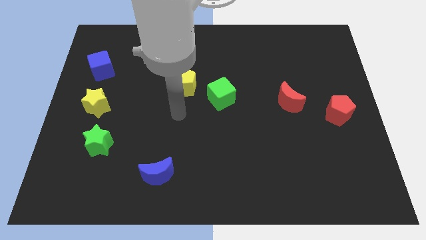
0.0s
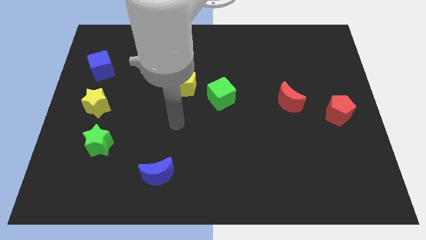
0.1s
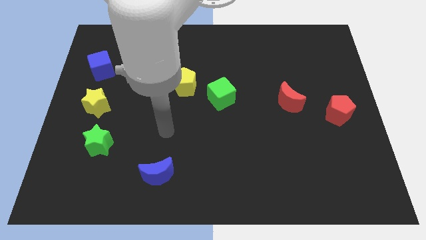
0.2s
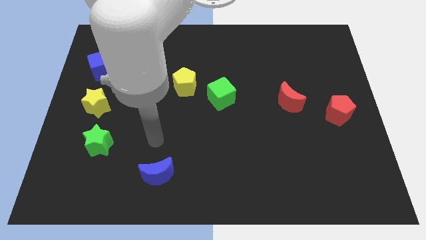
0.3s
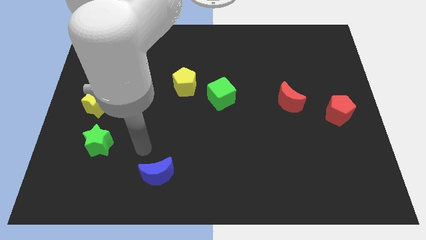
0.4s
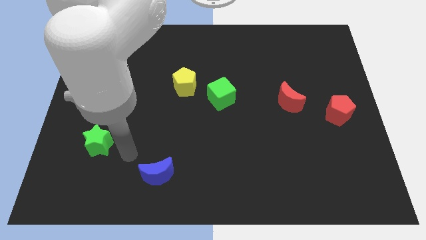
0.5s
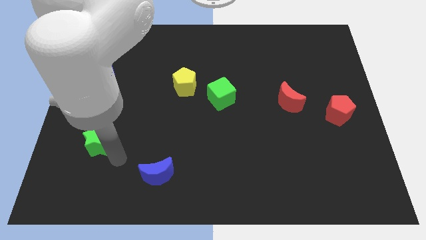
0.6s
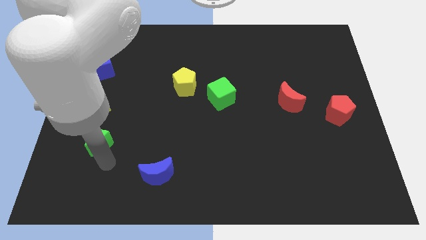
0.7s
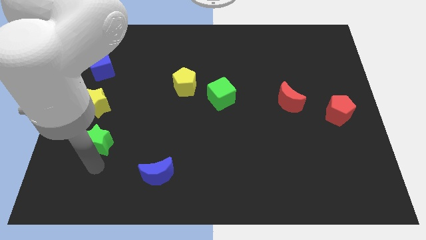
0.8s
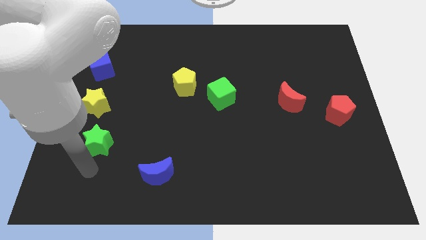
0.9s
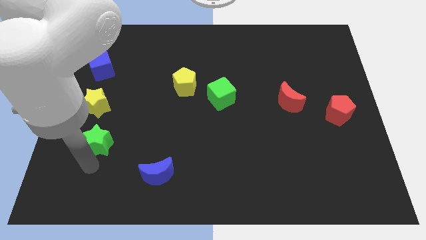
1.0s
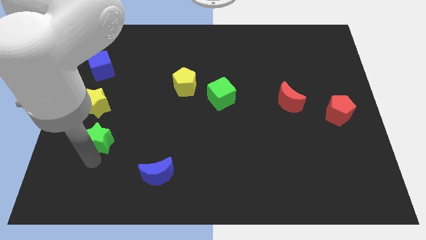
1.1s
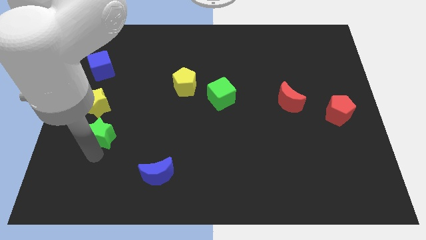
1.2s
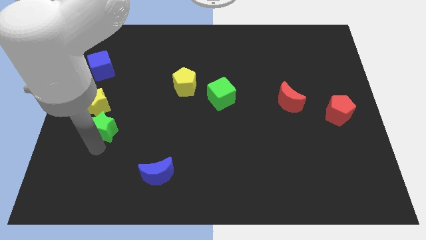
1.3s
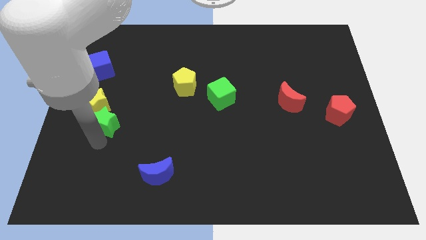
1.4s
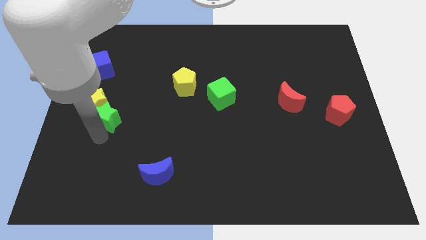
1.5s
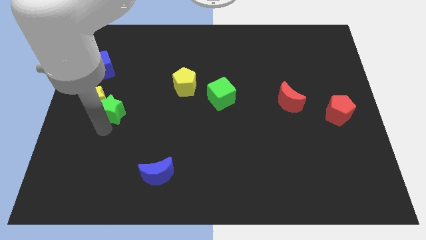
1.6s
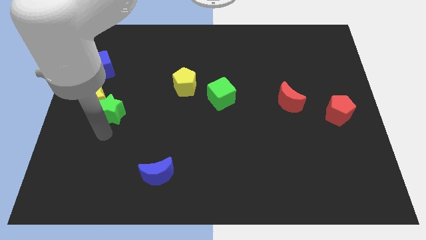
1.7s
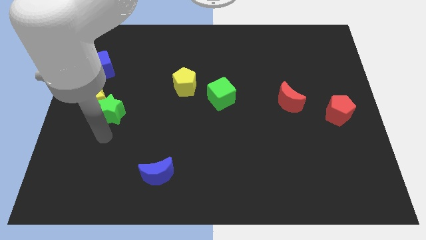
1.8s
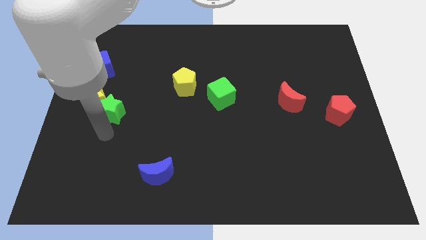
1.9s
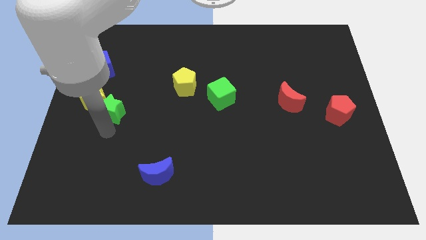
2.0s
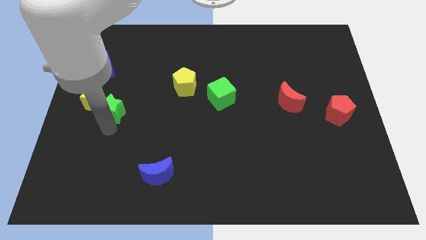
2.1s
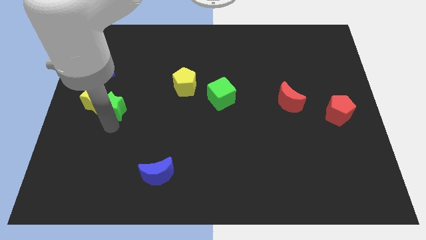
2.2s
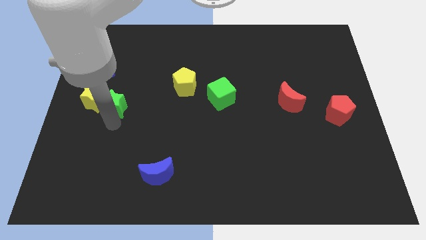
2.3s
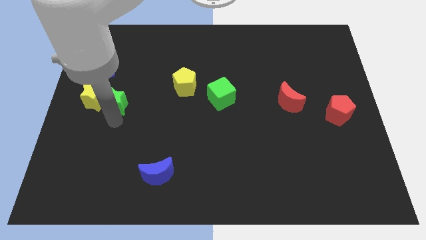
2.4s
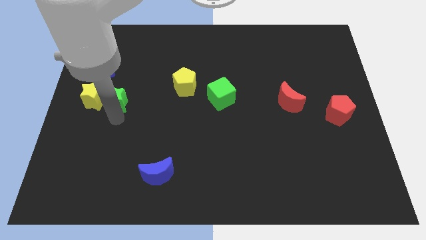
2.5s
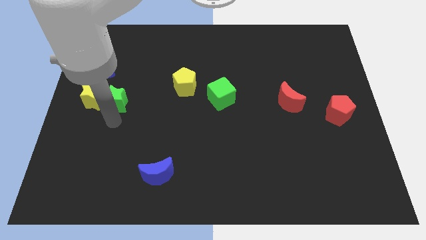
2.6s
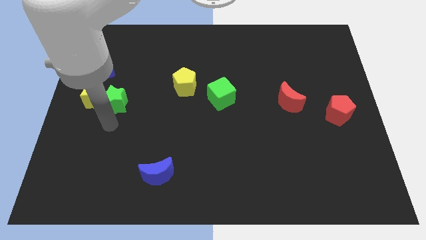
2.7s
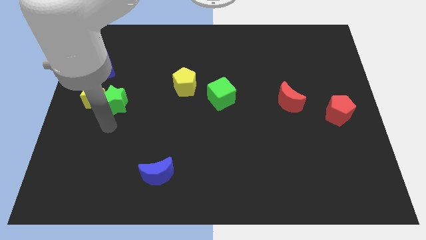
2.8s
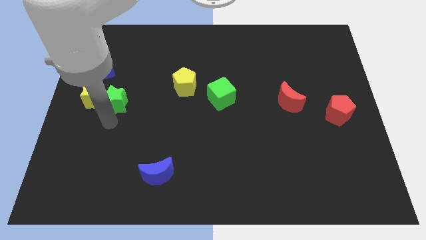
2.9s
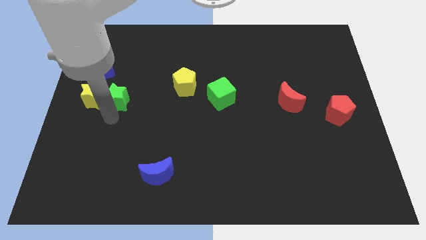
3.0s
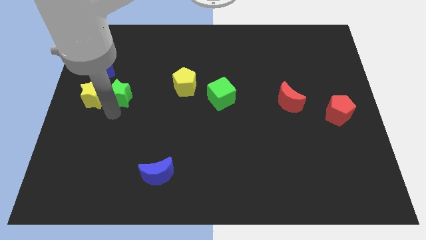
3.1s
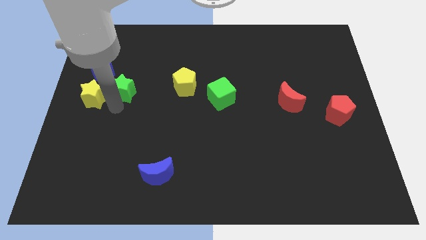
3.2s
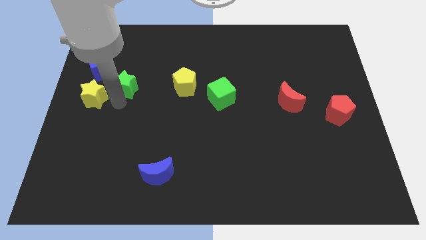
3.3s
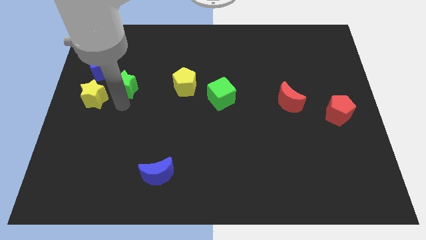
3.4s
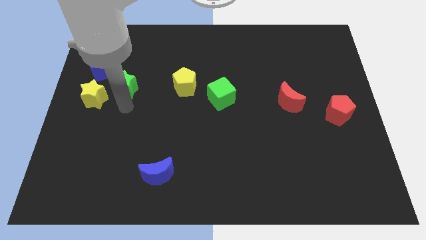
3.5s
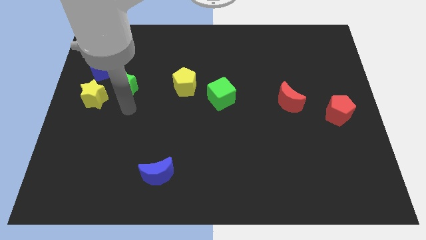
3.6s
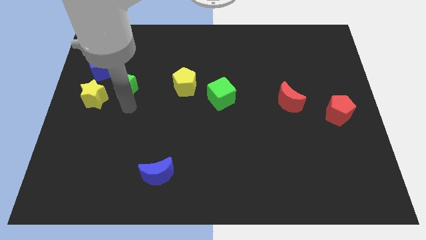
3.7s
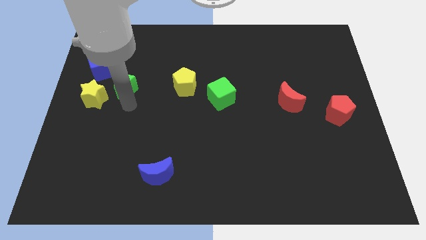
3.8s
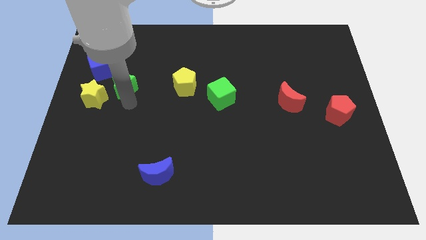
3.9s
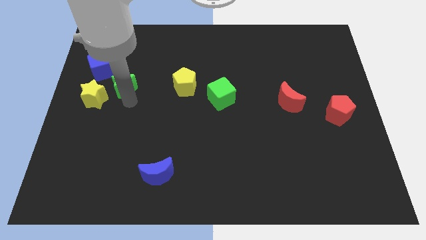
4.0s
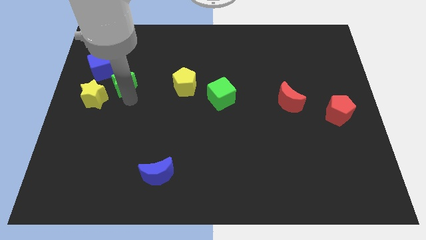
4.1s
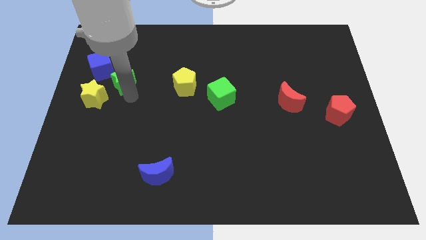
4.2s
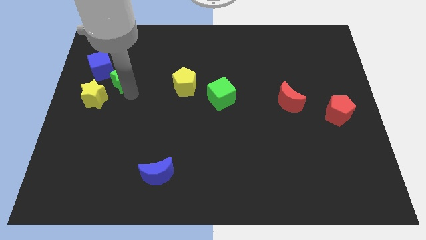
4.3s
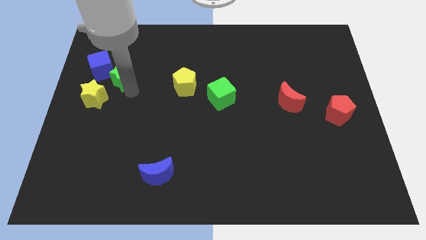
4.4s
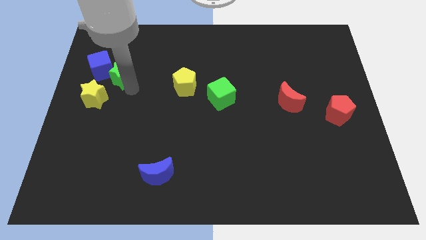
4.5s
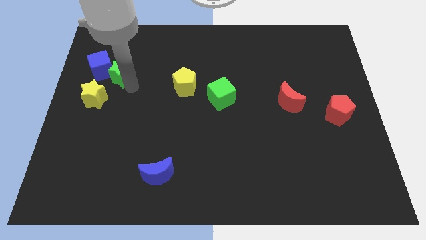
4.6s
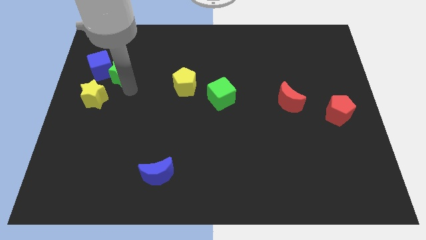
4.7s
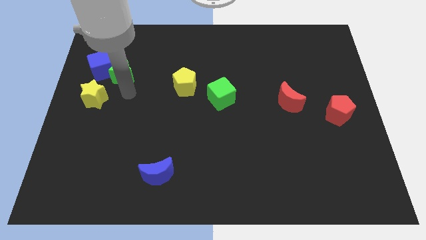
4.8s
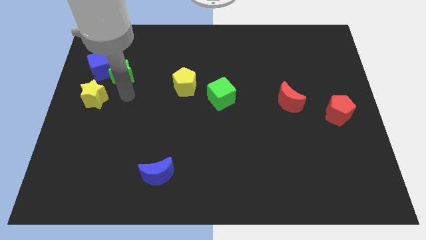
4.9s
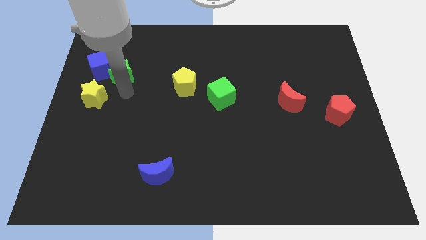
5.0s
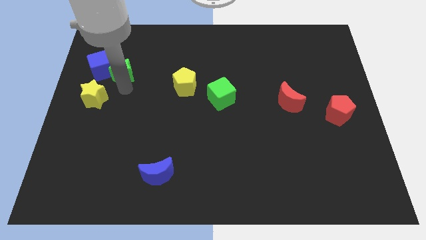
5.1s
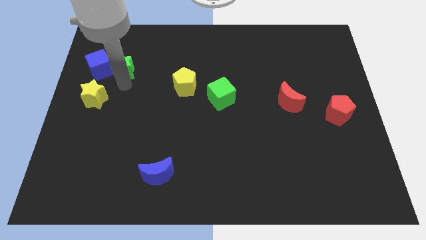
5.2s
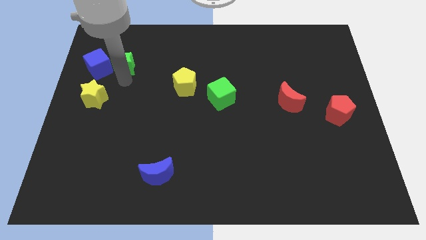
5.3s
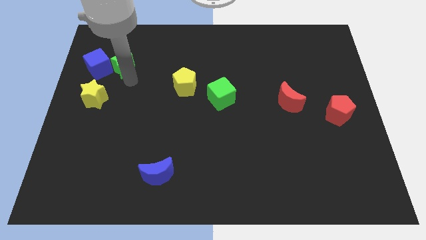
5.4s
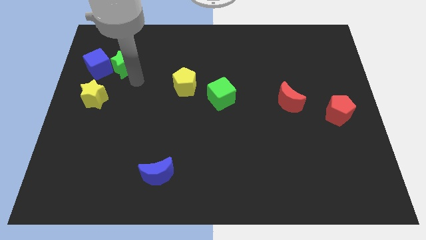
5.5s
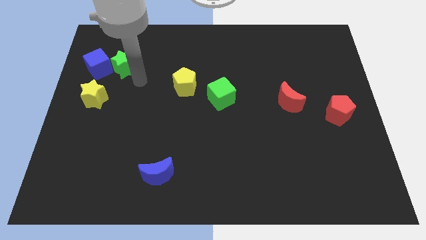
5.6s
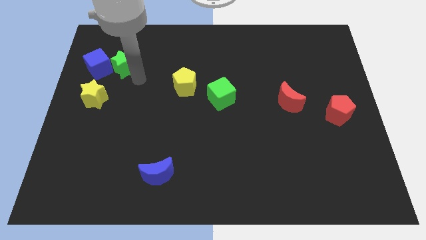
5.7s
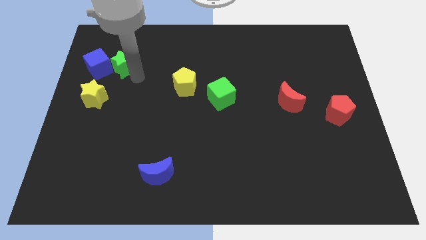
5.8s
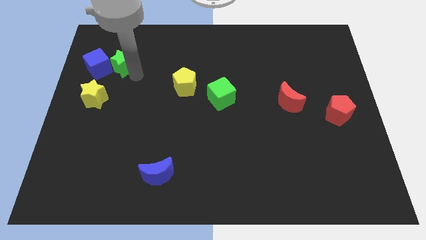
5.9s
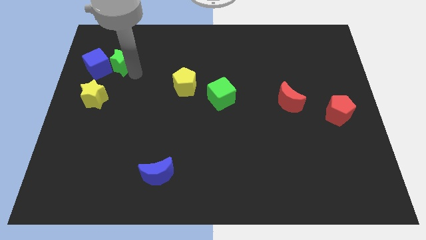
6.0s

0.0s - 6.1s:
move the green star to the top of the yellow star

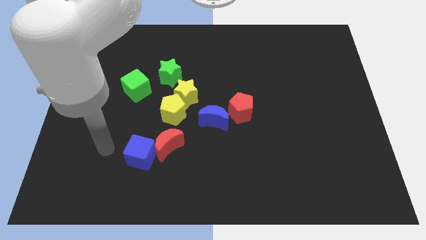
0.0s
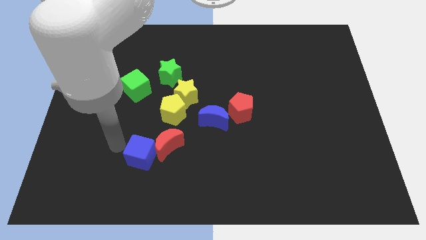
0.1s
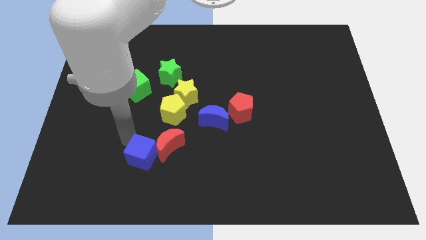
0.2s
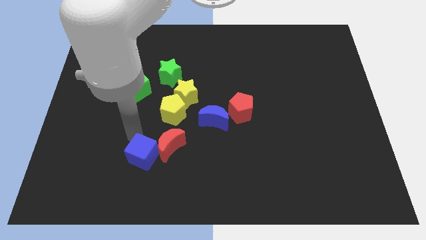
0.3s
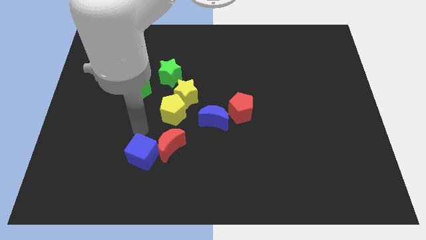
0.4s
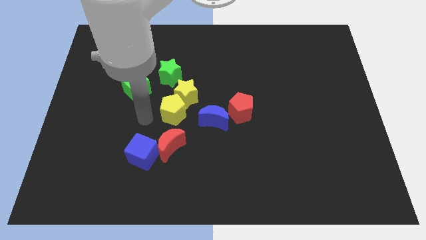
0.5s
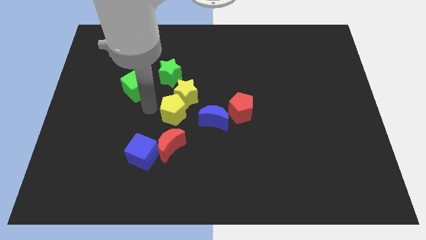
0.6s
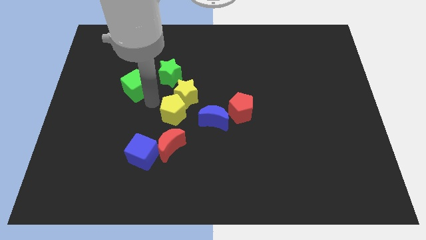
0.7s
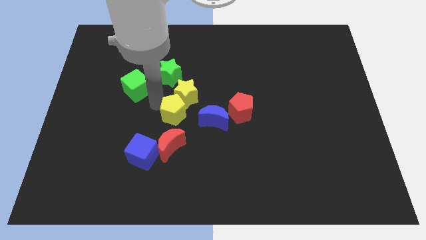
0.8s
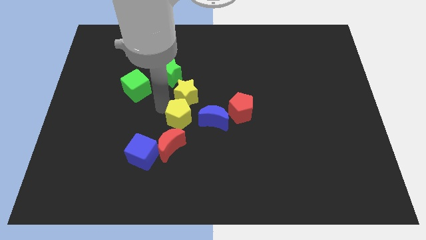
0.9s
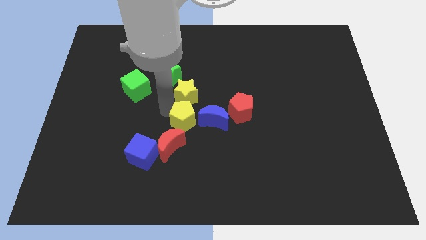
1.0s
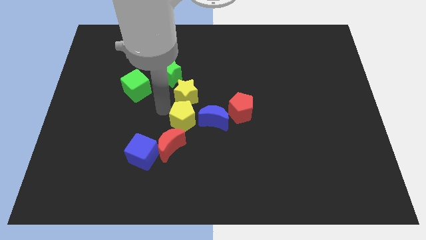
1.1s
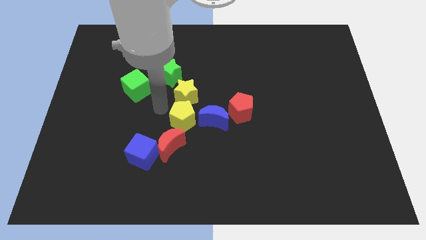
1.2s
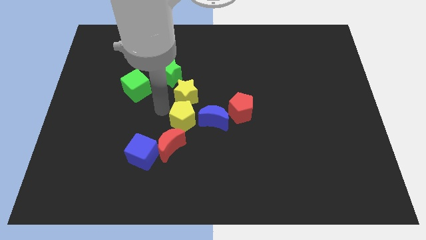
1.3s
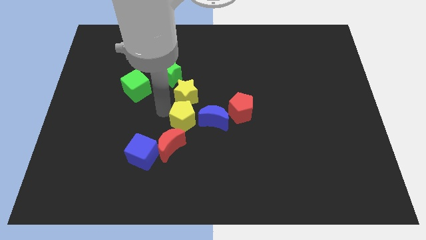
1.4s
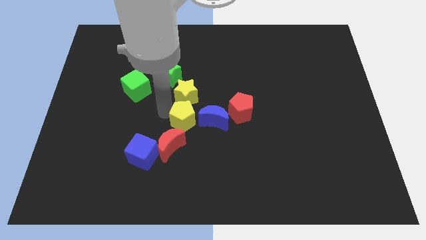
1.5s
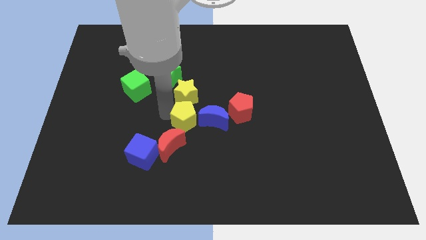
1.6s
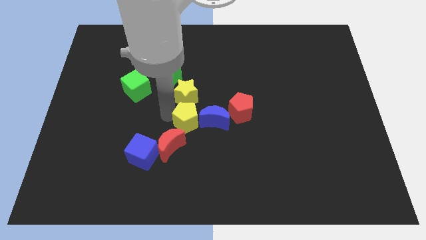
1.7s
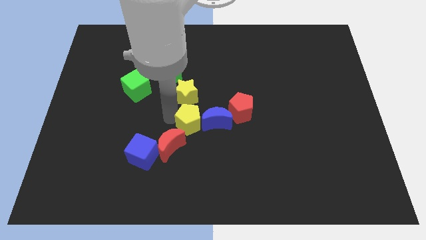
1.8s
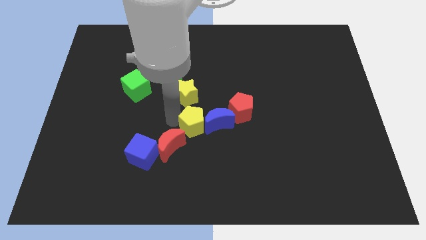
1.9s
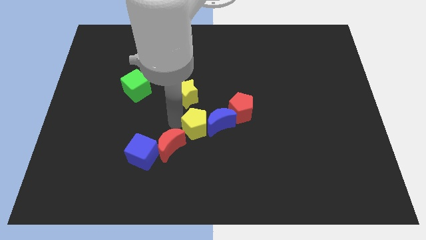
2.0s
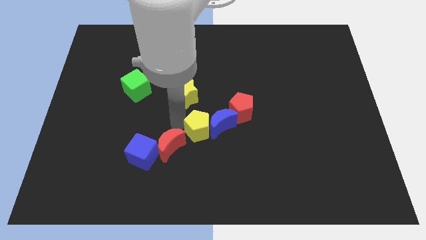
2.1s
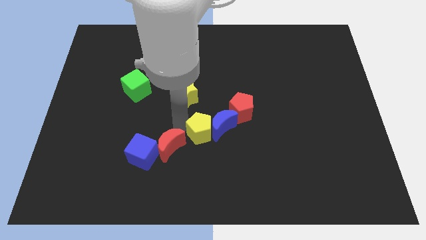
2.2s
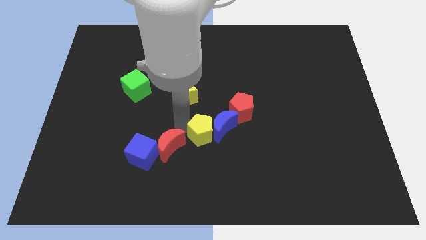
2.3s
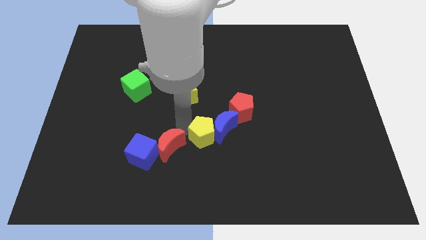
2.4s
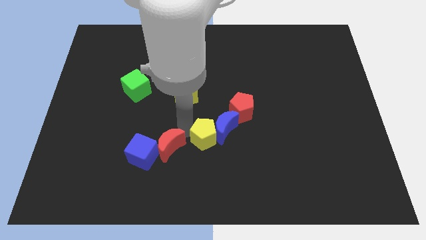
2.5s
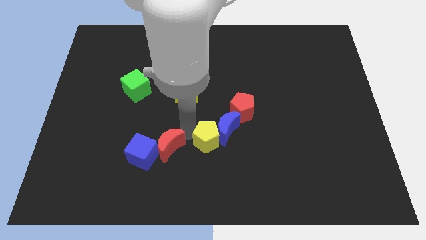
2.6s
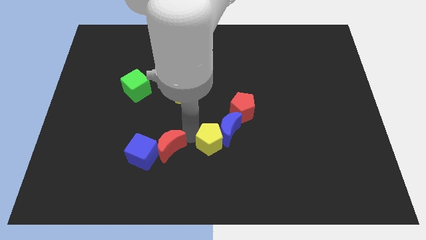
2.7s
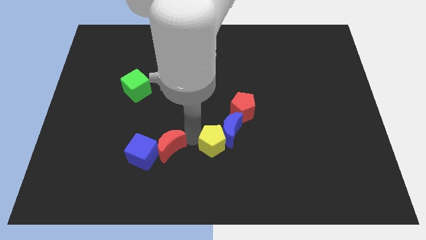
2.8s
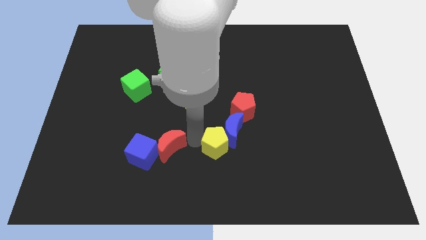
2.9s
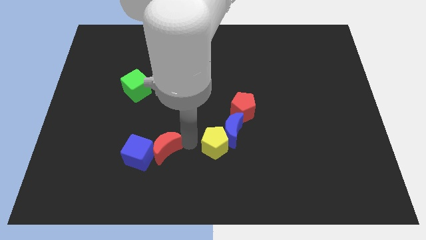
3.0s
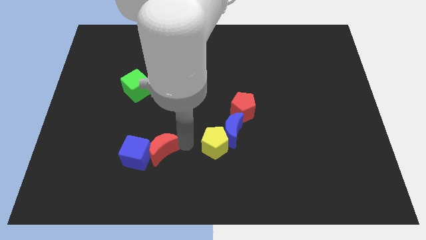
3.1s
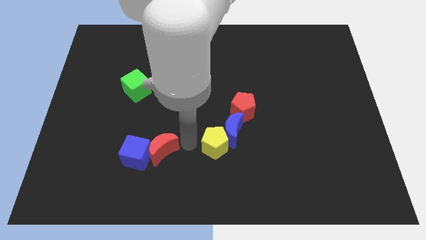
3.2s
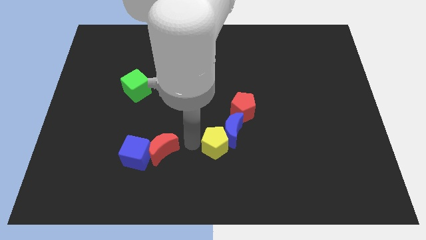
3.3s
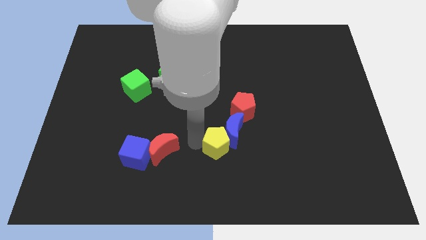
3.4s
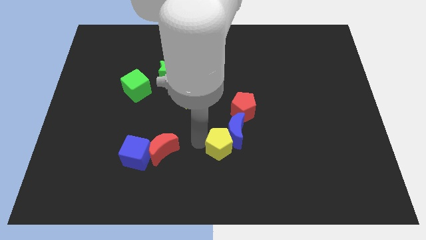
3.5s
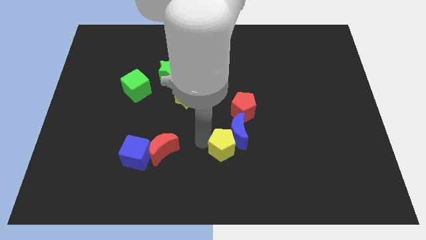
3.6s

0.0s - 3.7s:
move the yellow pentagon to the bottom side of the red pentagon
